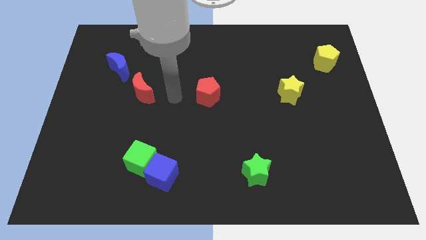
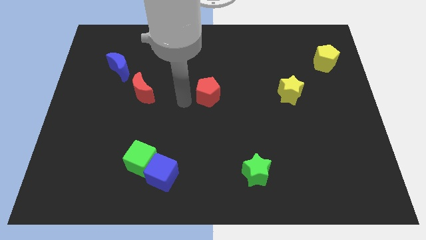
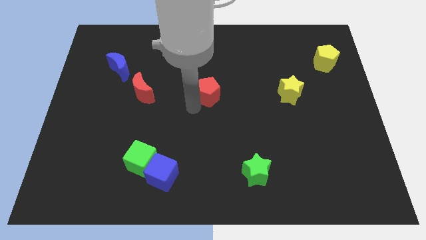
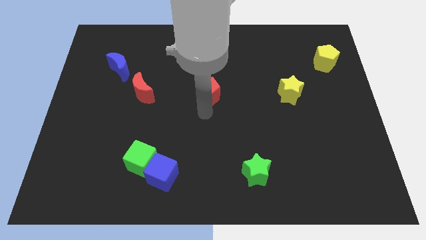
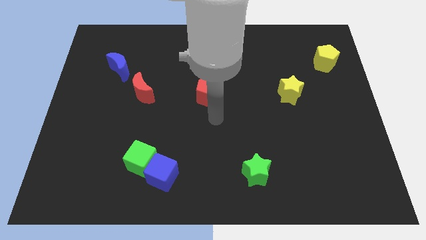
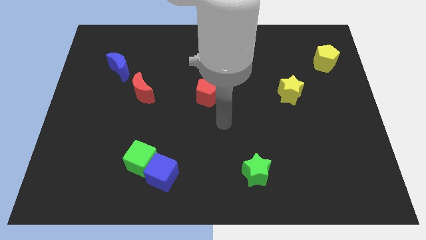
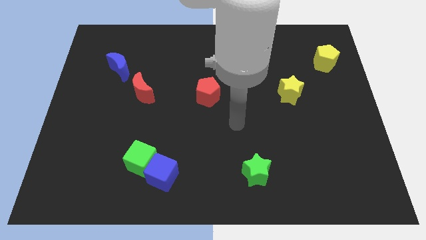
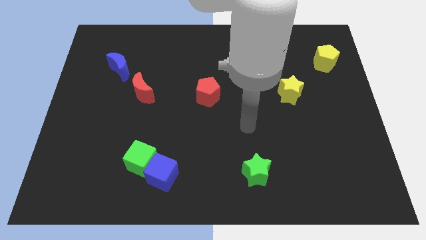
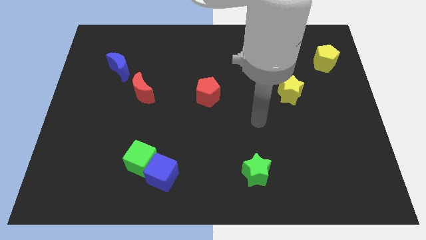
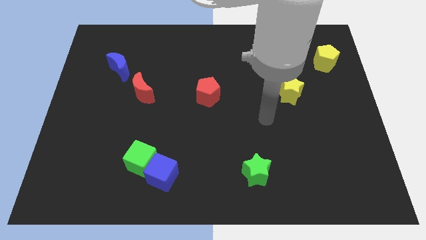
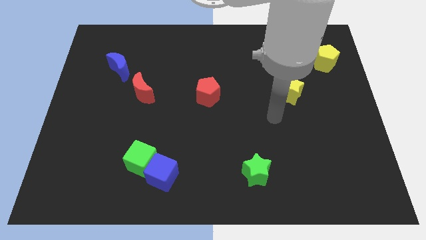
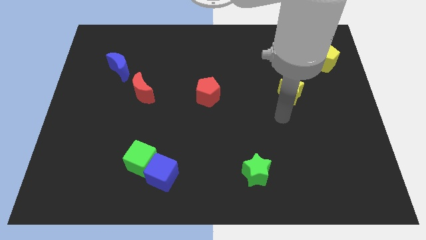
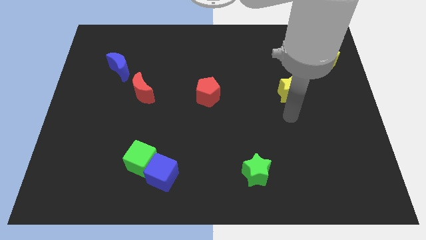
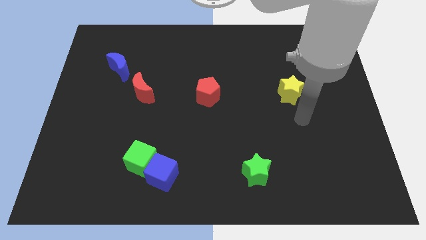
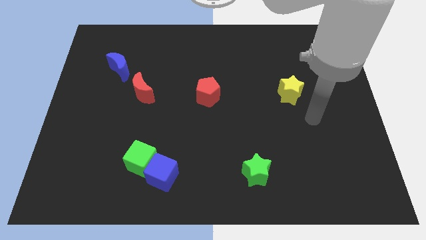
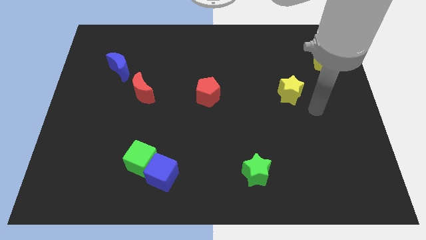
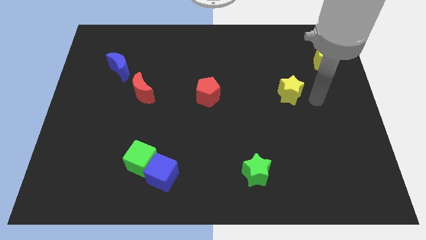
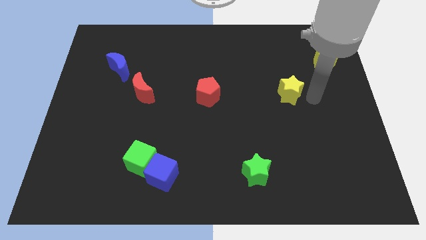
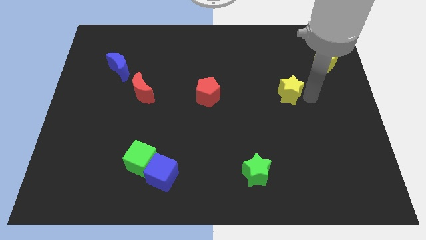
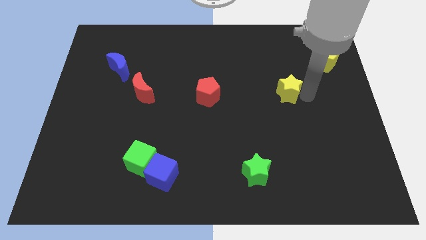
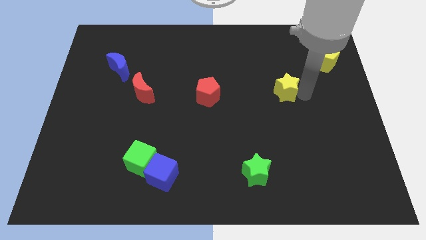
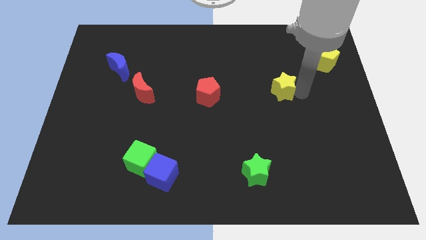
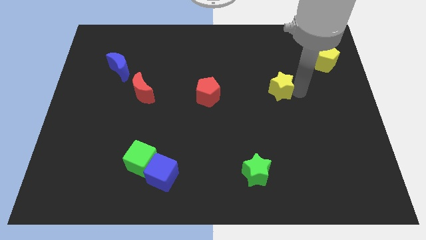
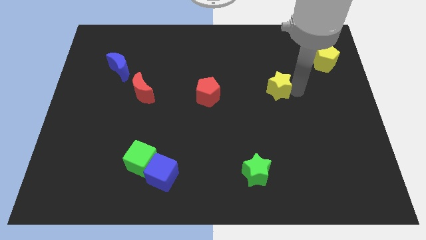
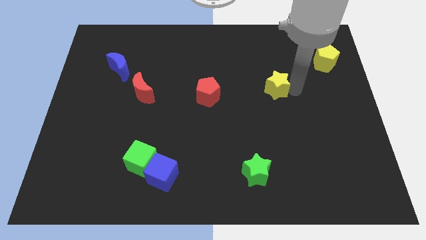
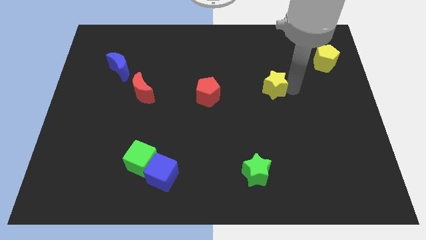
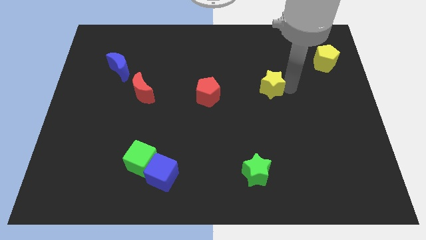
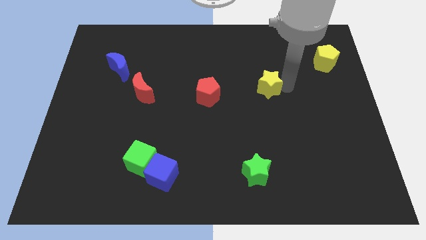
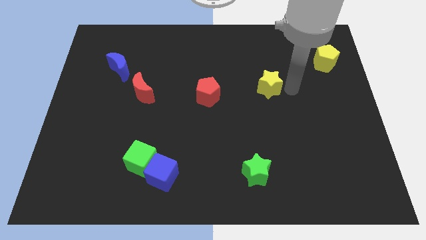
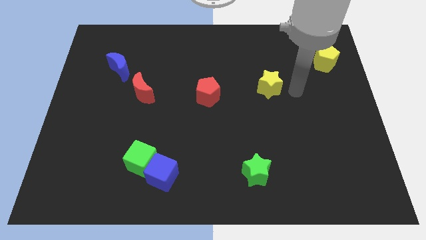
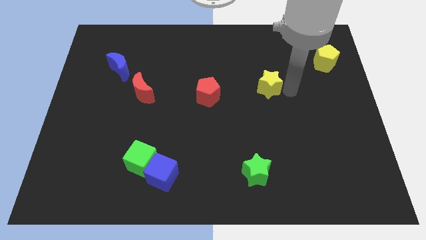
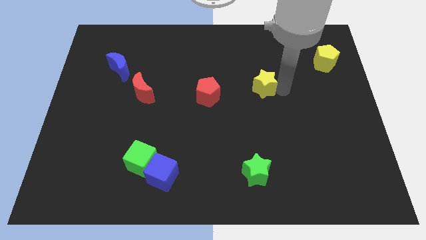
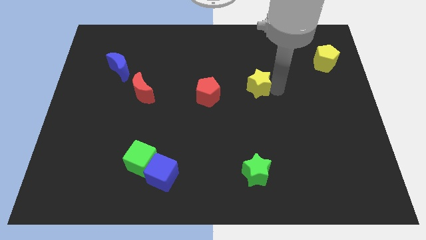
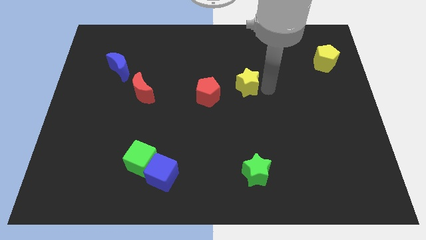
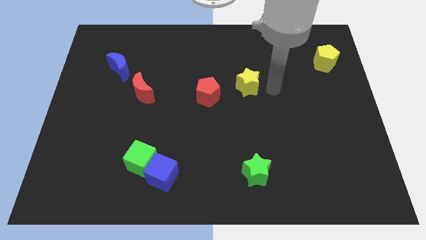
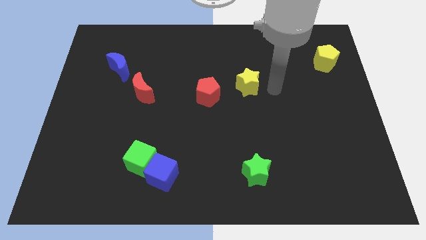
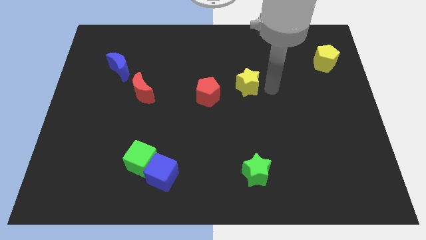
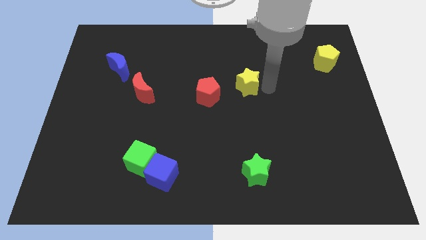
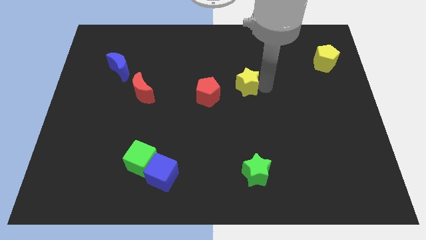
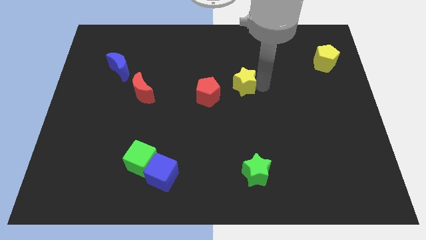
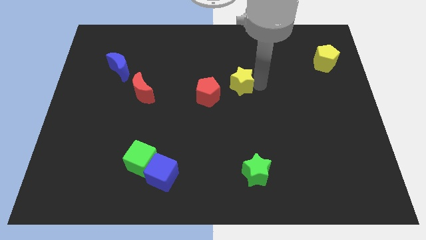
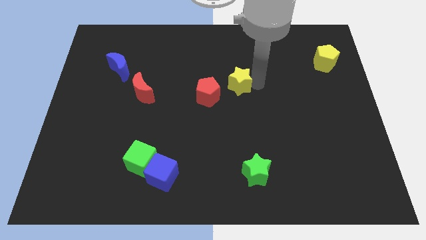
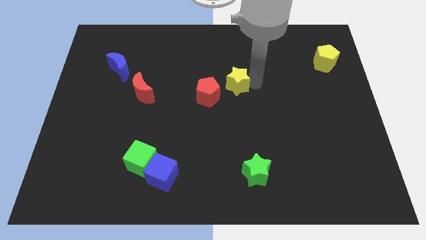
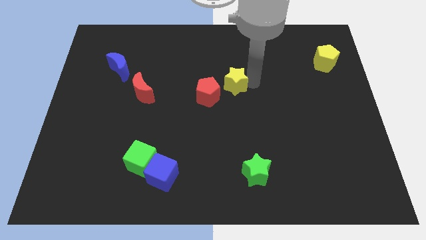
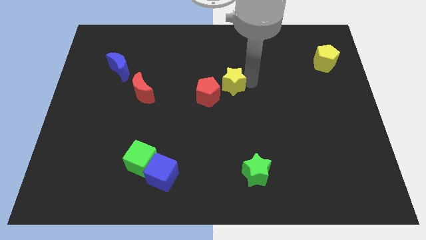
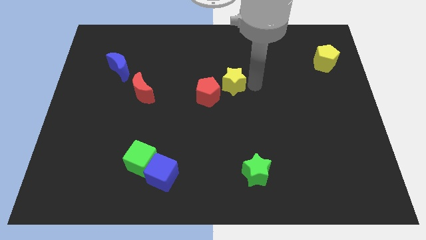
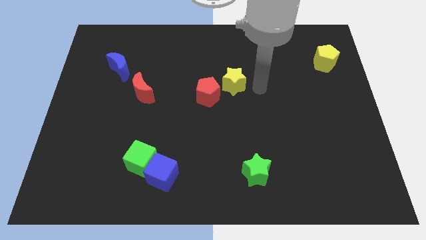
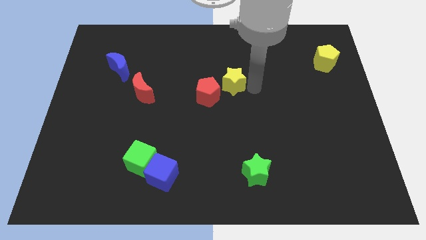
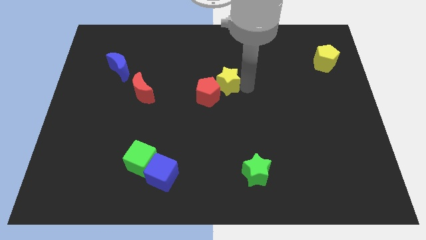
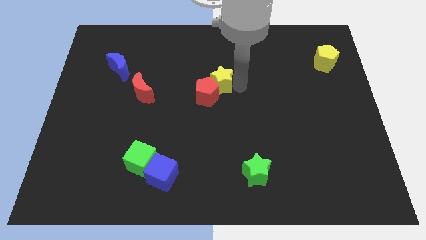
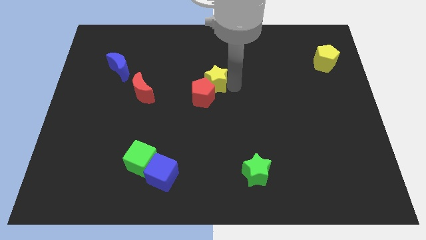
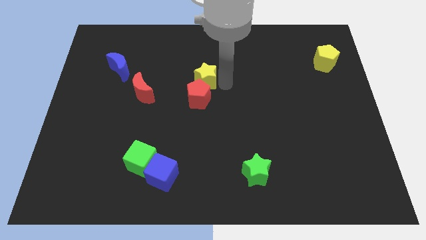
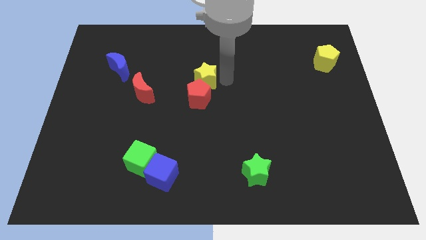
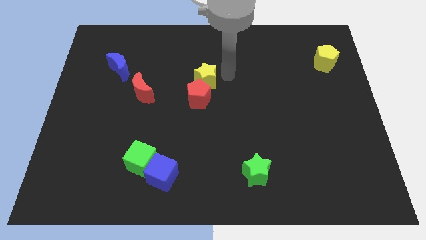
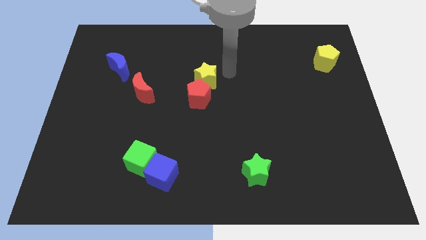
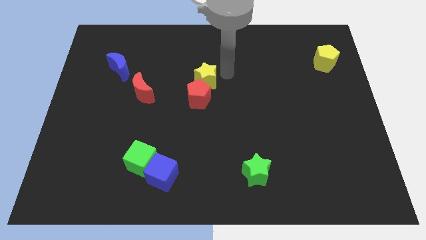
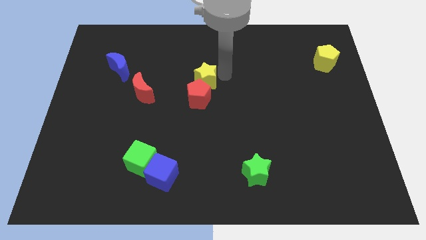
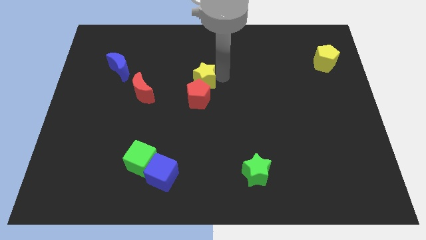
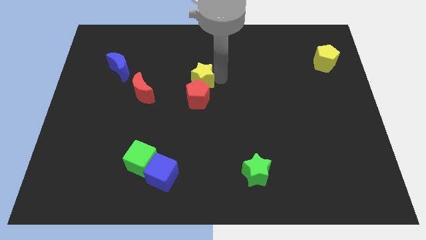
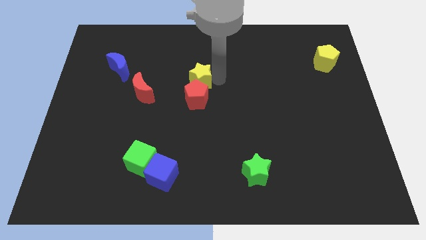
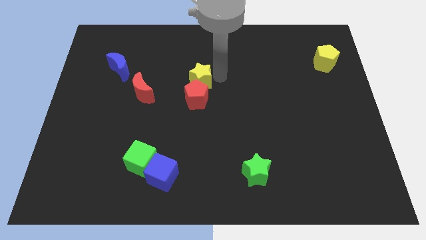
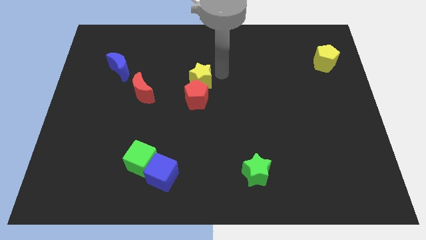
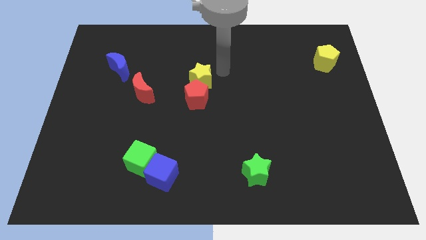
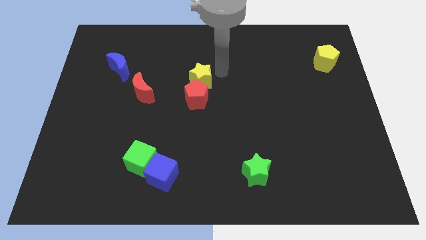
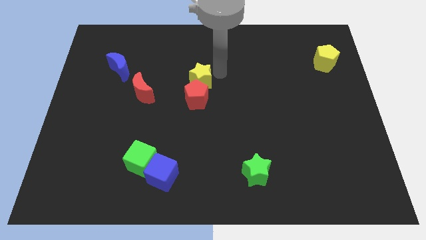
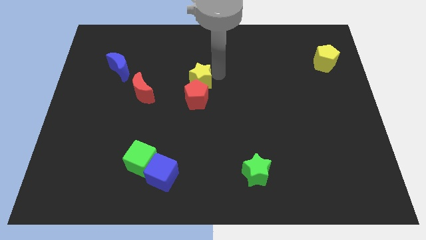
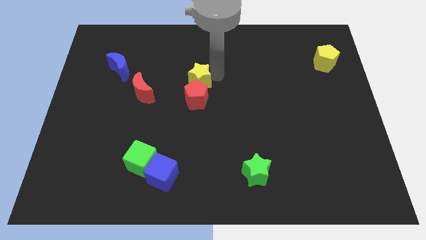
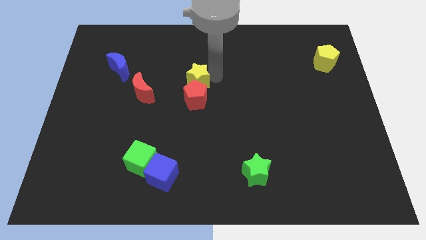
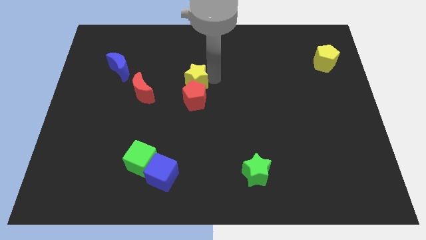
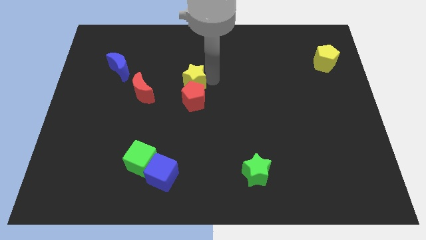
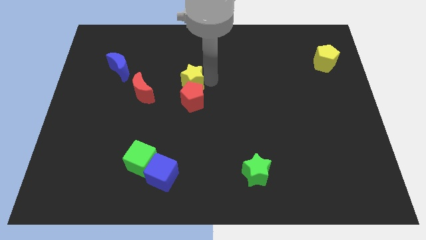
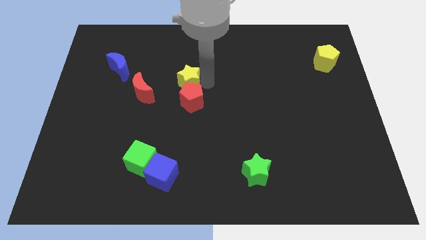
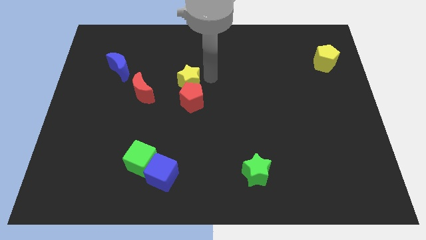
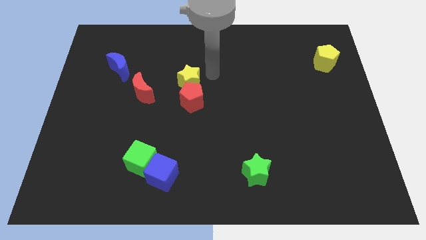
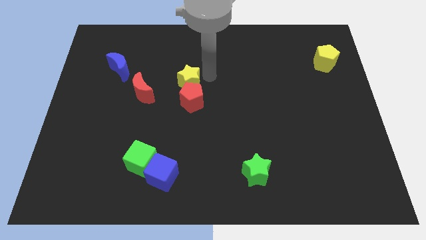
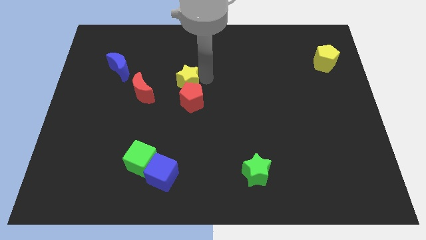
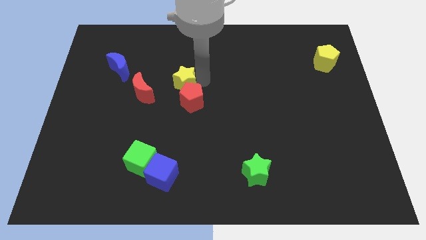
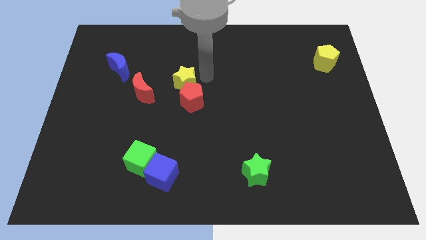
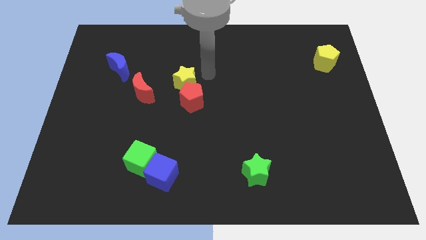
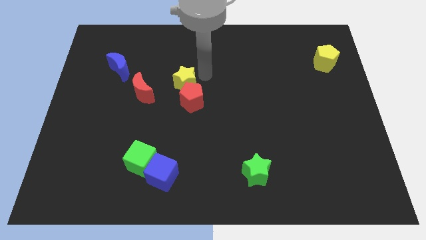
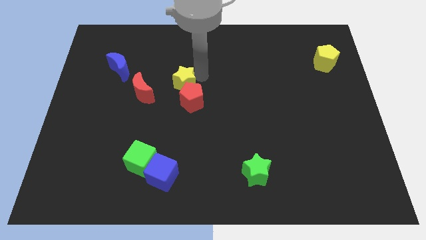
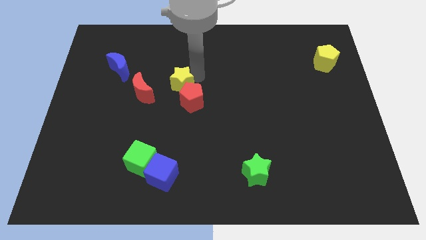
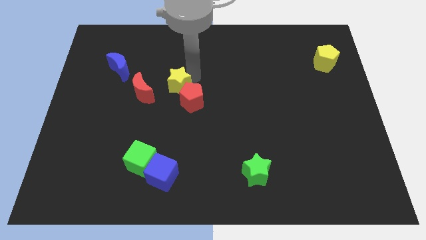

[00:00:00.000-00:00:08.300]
slide the yellow star left of the red pentagon
